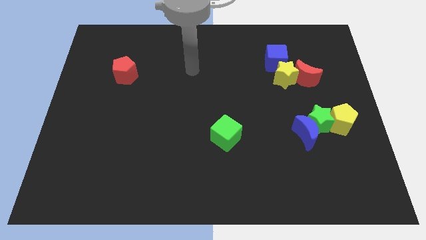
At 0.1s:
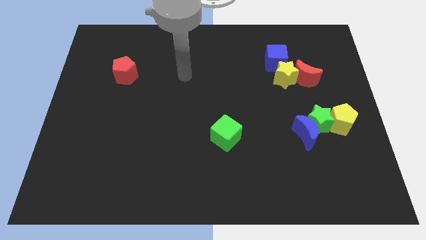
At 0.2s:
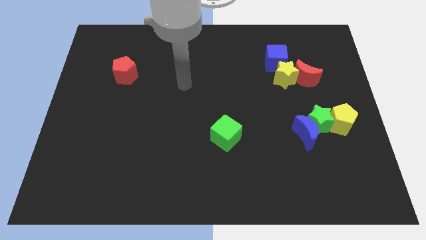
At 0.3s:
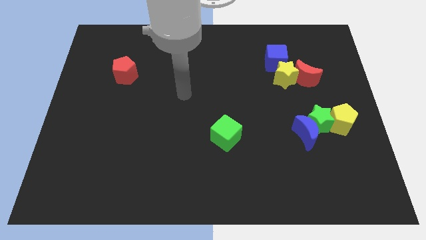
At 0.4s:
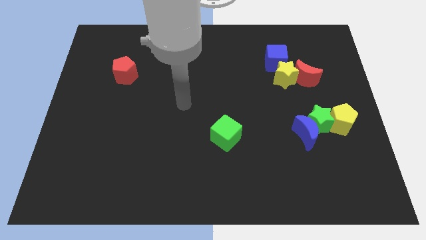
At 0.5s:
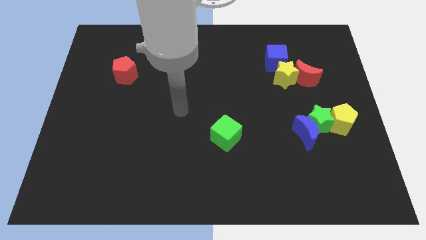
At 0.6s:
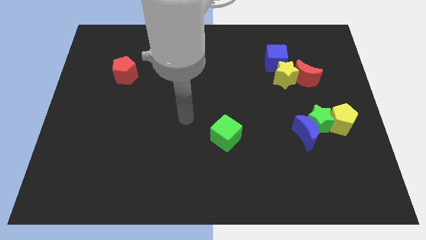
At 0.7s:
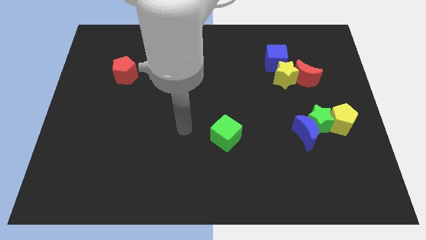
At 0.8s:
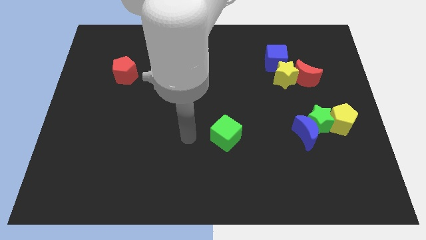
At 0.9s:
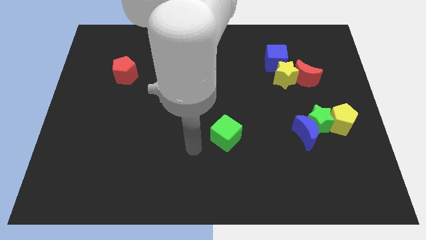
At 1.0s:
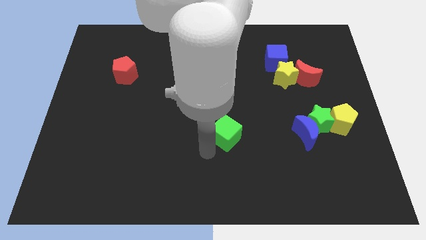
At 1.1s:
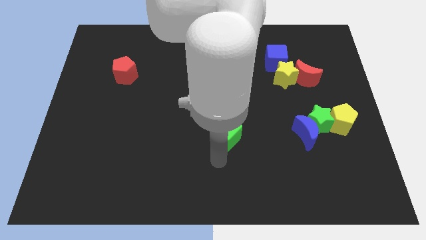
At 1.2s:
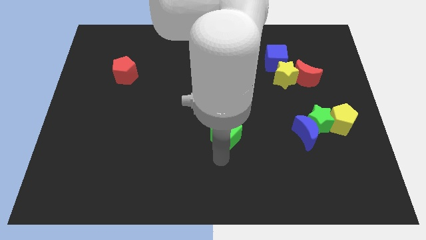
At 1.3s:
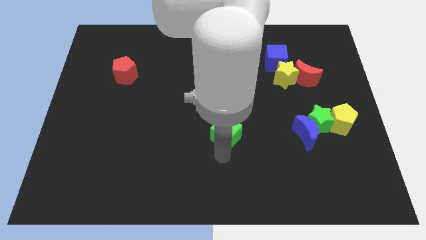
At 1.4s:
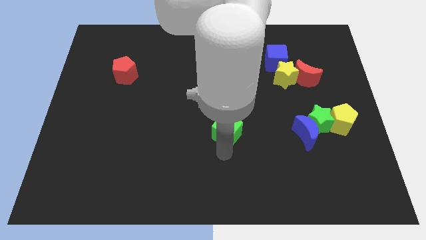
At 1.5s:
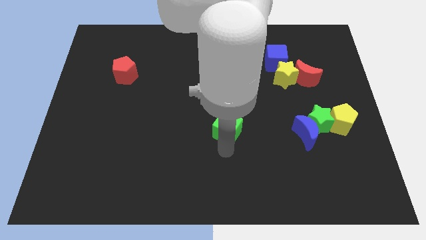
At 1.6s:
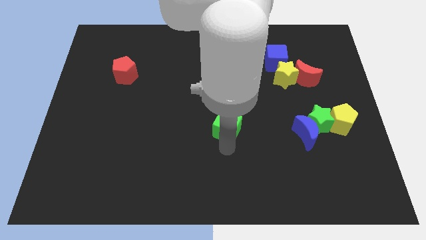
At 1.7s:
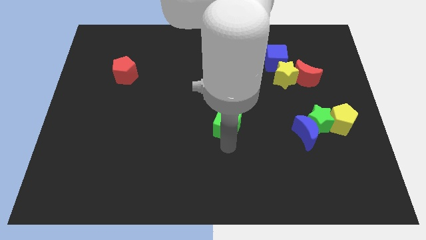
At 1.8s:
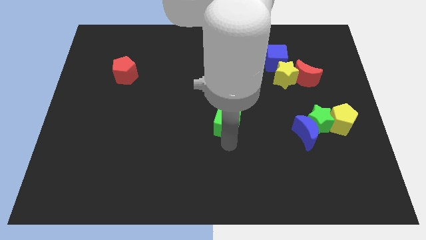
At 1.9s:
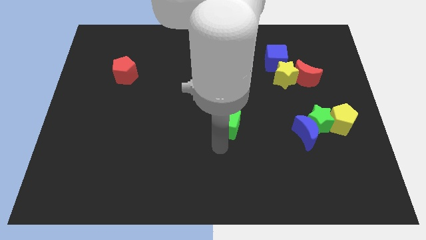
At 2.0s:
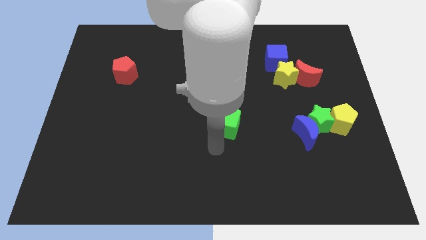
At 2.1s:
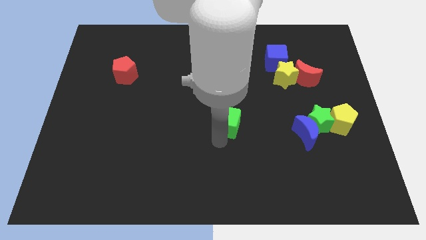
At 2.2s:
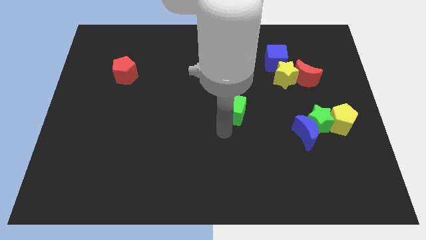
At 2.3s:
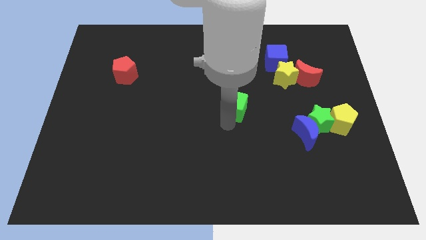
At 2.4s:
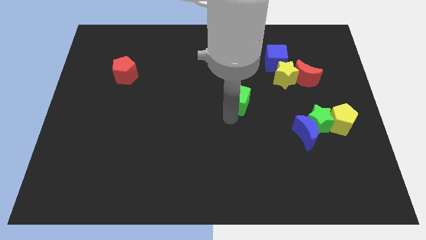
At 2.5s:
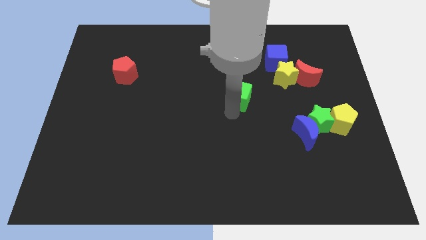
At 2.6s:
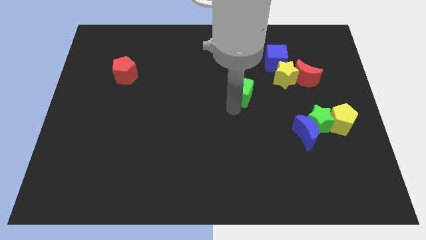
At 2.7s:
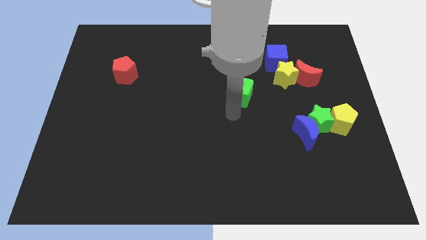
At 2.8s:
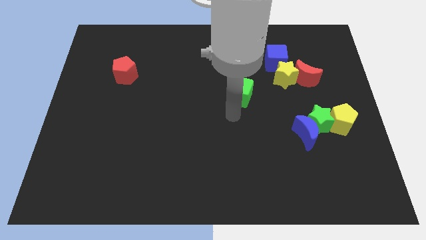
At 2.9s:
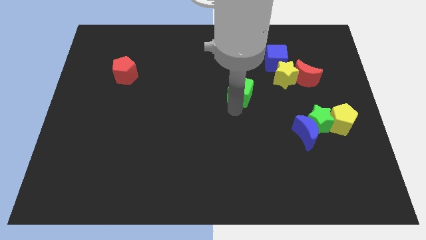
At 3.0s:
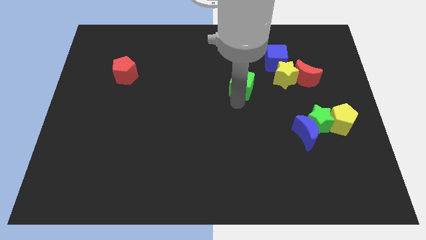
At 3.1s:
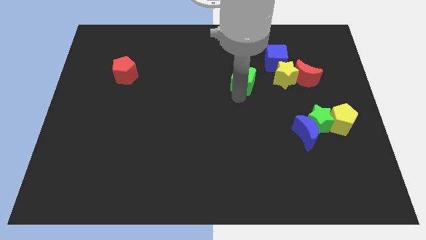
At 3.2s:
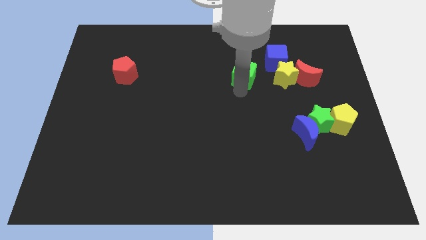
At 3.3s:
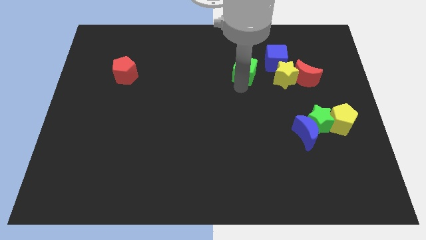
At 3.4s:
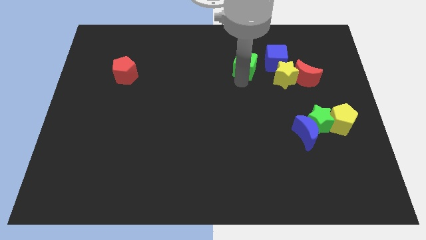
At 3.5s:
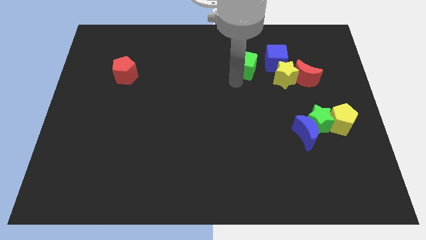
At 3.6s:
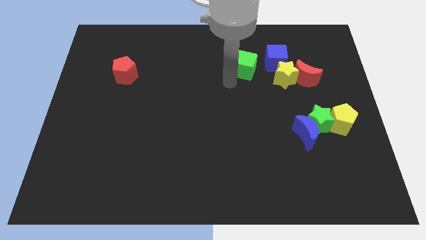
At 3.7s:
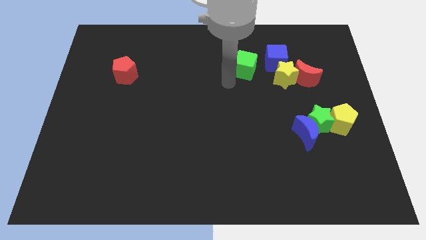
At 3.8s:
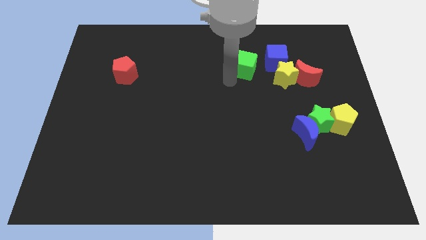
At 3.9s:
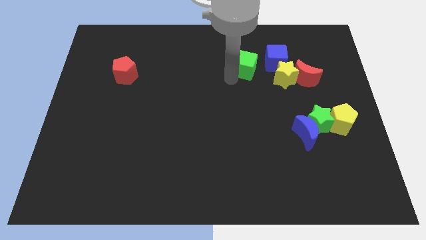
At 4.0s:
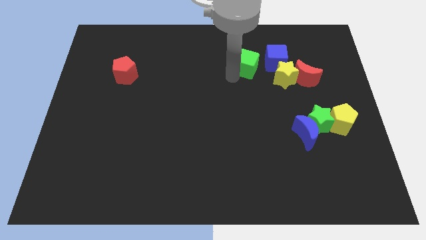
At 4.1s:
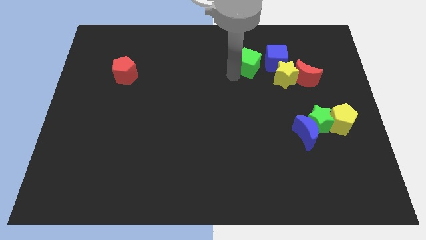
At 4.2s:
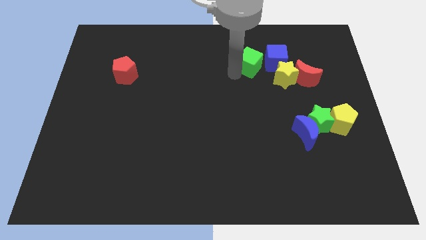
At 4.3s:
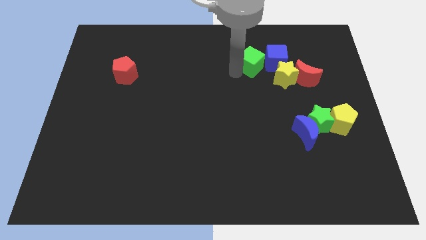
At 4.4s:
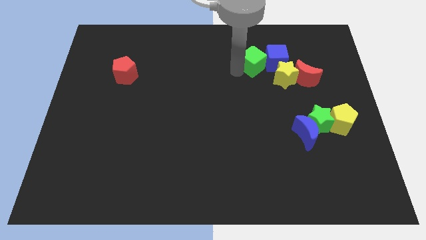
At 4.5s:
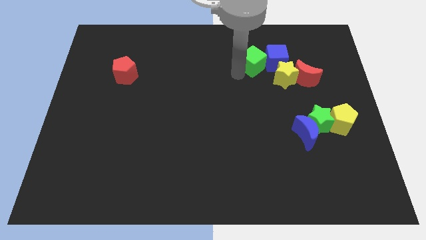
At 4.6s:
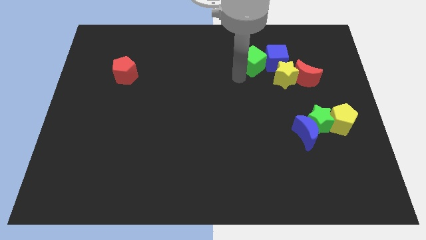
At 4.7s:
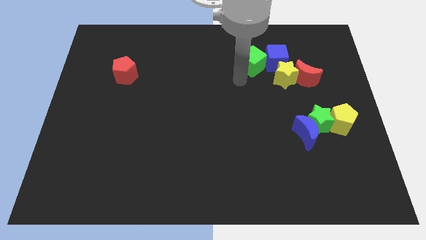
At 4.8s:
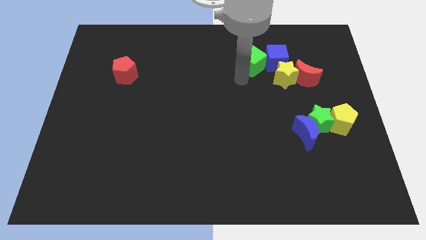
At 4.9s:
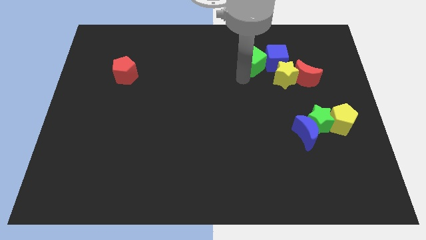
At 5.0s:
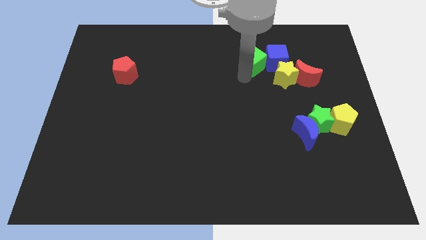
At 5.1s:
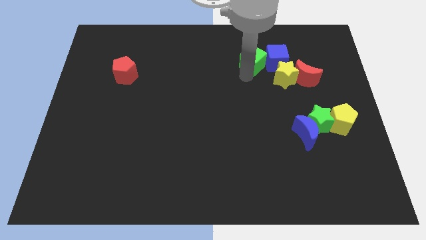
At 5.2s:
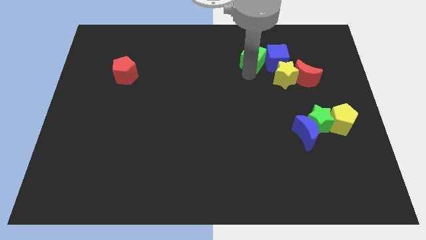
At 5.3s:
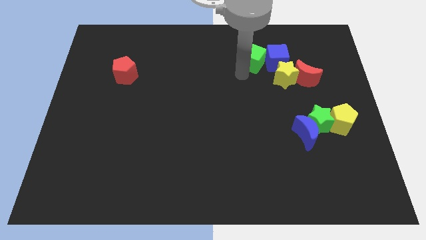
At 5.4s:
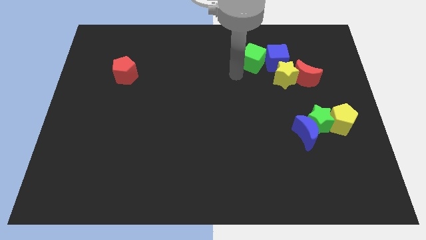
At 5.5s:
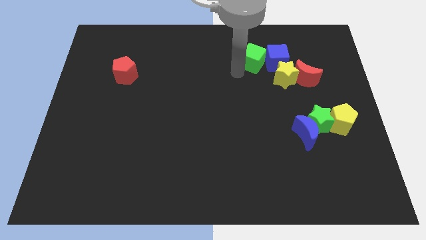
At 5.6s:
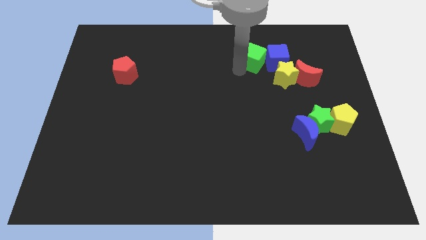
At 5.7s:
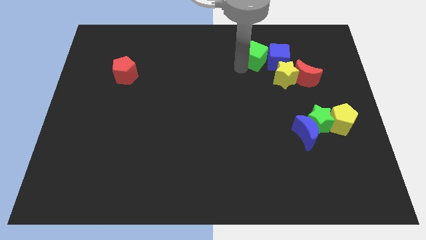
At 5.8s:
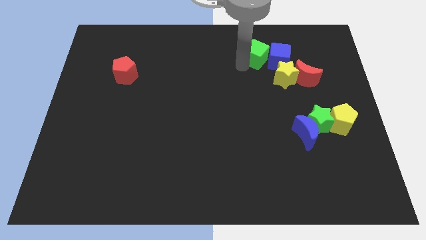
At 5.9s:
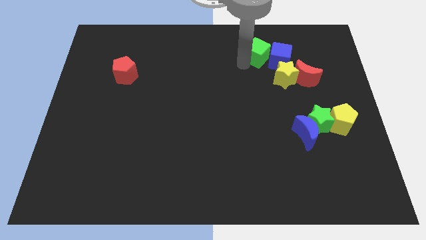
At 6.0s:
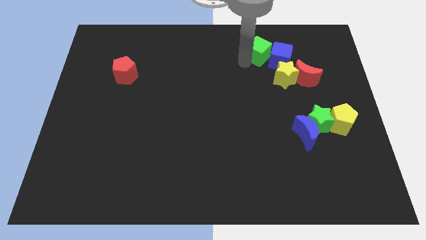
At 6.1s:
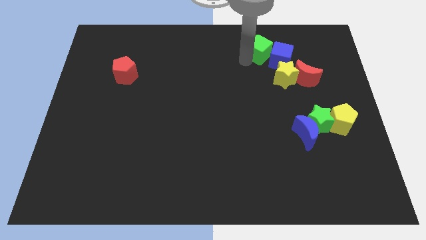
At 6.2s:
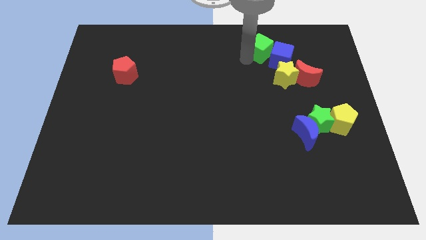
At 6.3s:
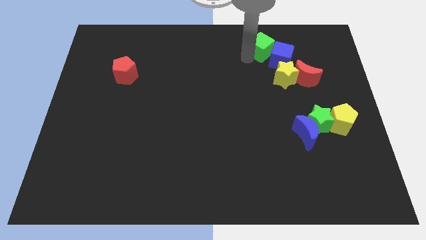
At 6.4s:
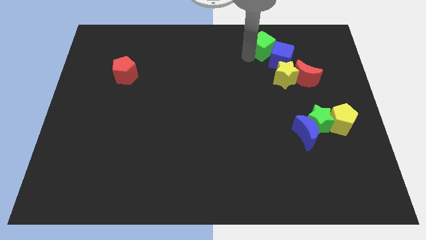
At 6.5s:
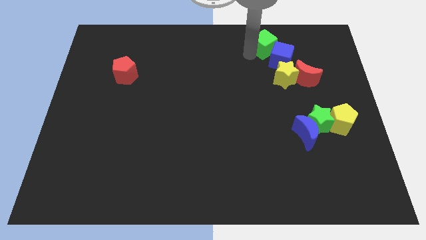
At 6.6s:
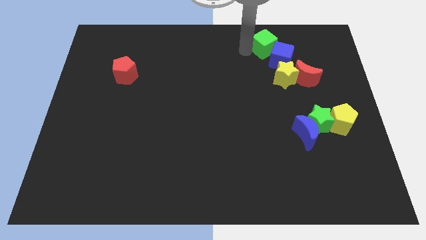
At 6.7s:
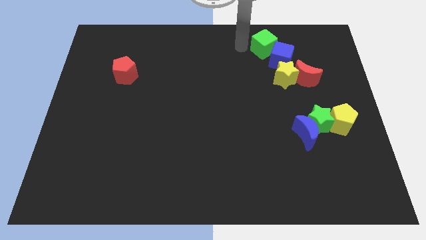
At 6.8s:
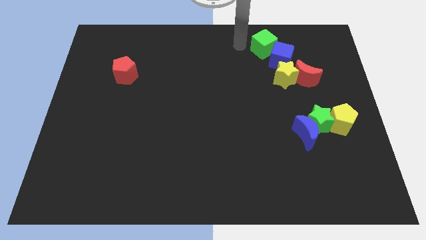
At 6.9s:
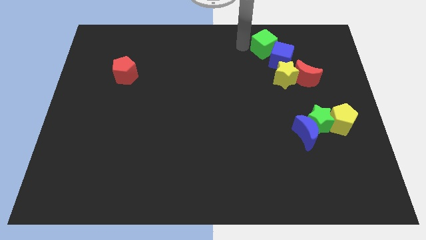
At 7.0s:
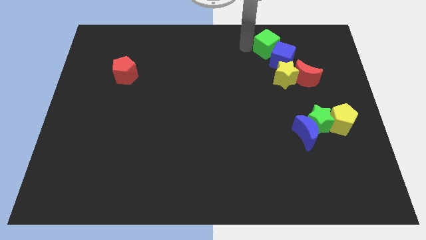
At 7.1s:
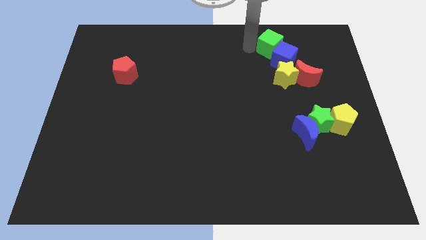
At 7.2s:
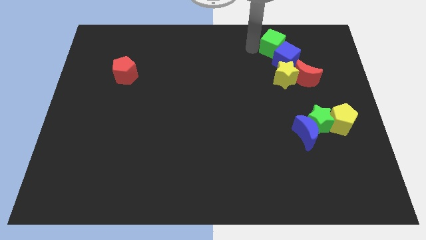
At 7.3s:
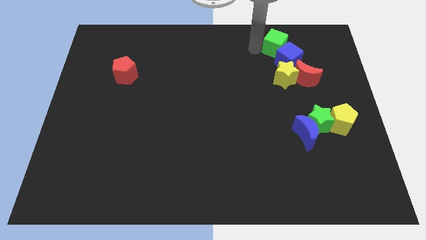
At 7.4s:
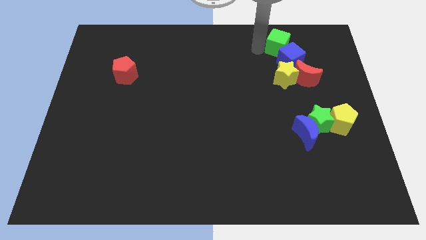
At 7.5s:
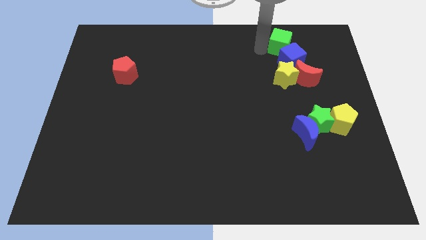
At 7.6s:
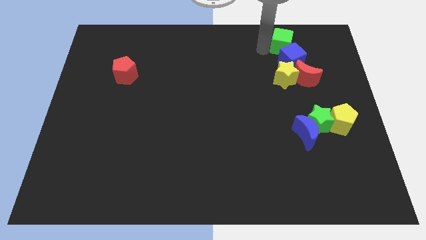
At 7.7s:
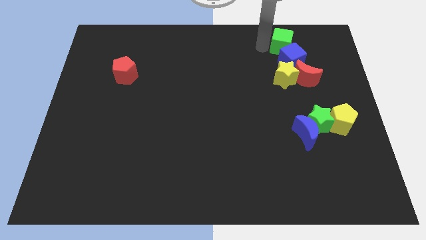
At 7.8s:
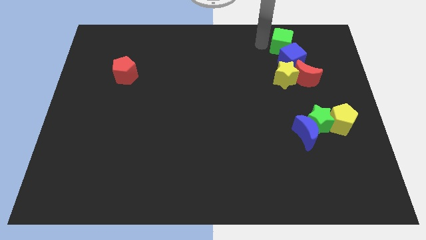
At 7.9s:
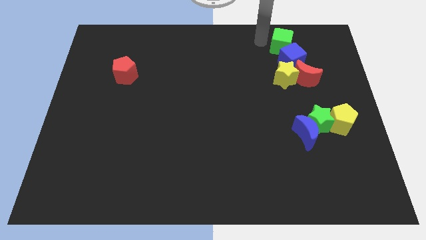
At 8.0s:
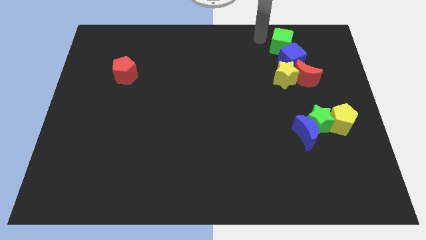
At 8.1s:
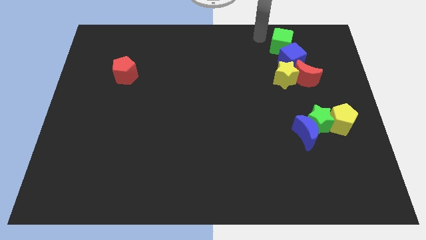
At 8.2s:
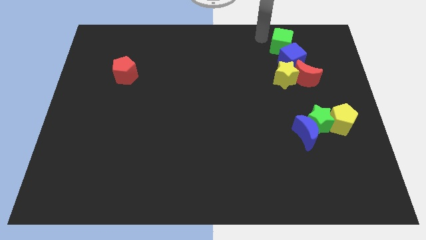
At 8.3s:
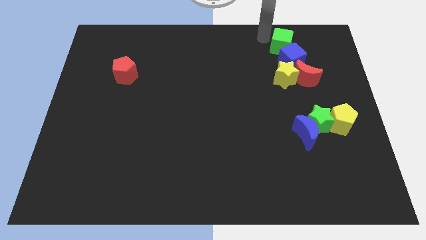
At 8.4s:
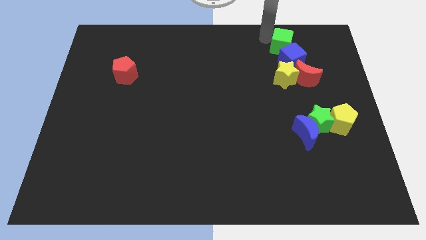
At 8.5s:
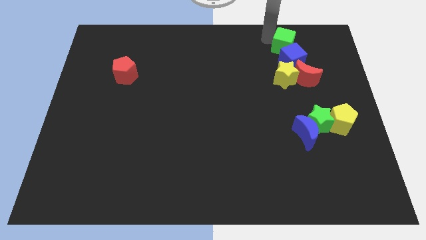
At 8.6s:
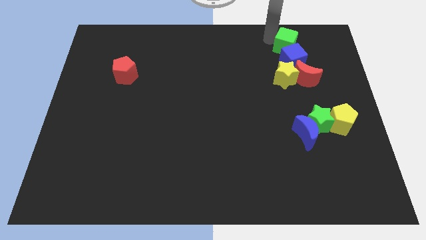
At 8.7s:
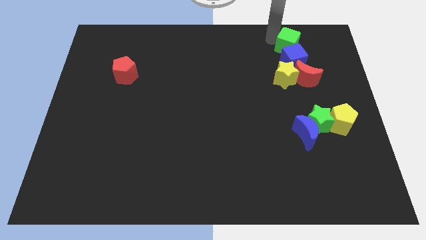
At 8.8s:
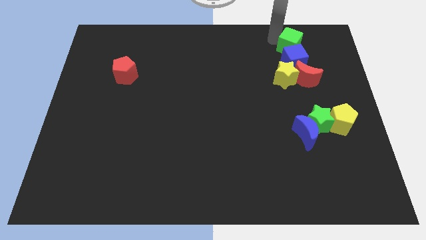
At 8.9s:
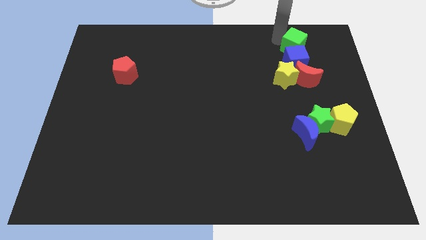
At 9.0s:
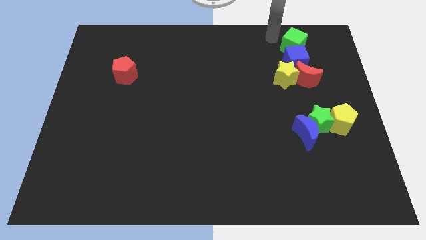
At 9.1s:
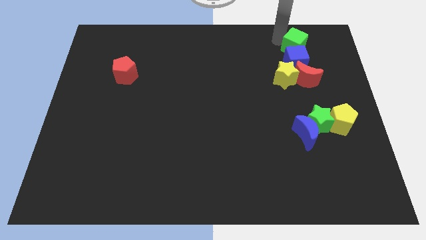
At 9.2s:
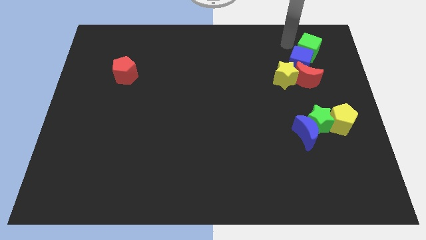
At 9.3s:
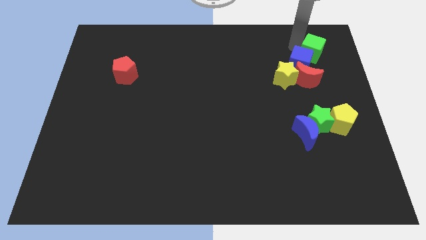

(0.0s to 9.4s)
slide the green cube just right of the blue cube
